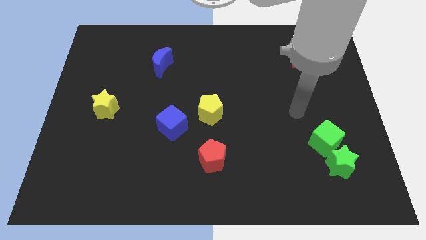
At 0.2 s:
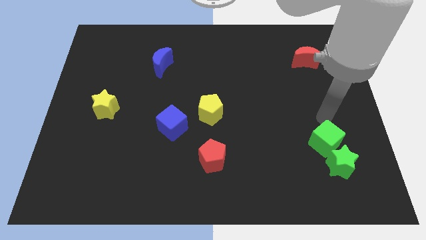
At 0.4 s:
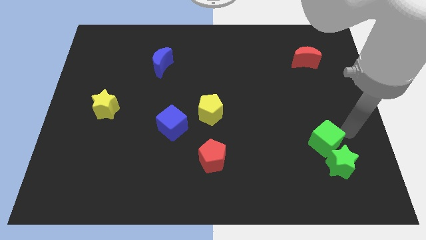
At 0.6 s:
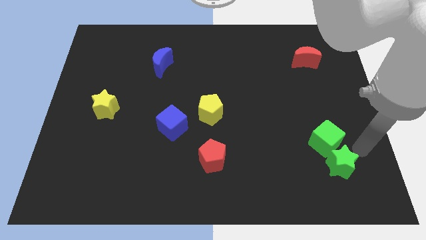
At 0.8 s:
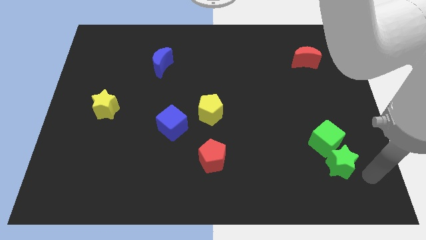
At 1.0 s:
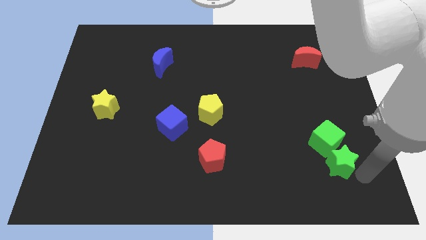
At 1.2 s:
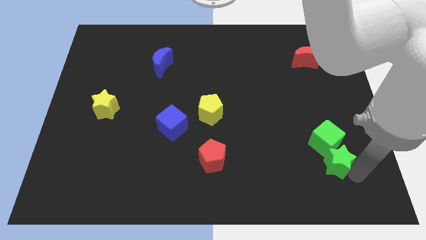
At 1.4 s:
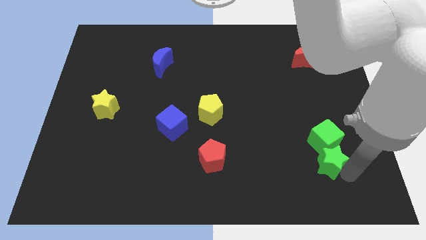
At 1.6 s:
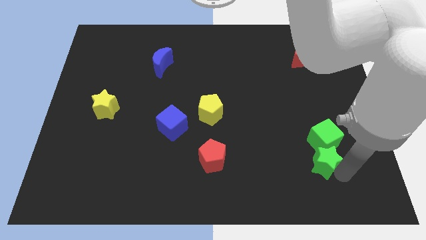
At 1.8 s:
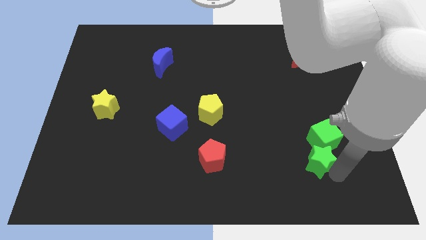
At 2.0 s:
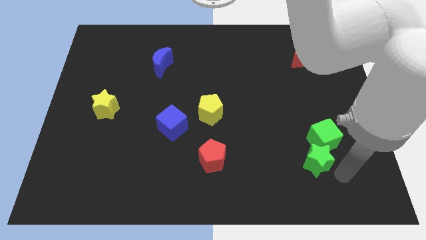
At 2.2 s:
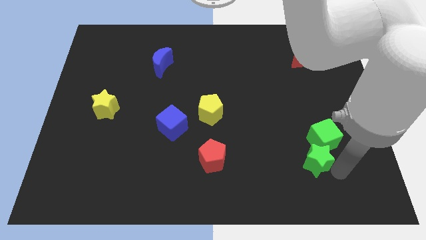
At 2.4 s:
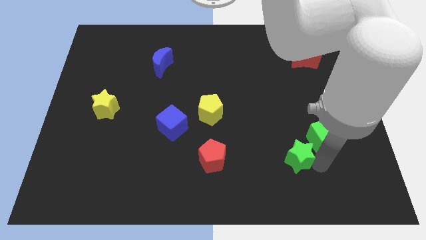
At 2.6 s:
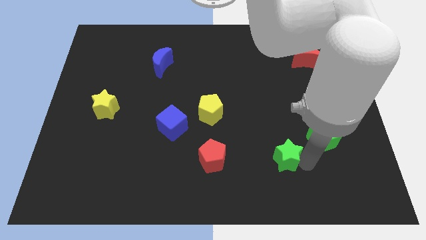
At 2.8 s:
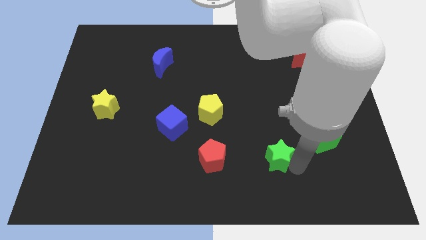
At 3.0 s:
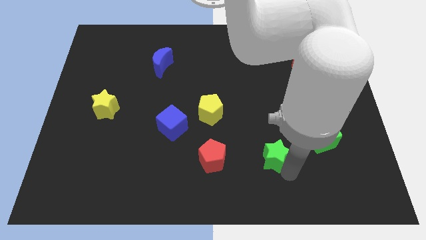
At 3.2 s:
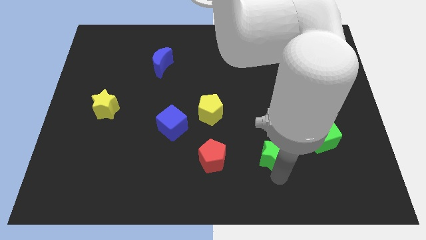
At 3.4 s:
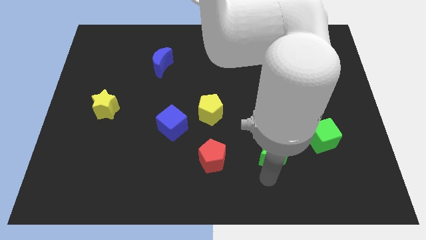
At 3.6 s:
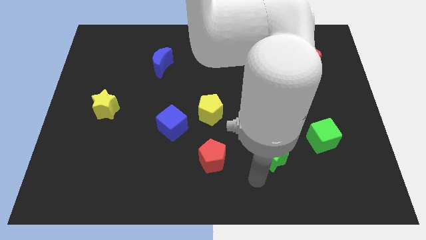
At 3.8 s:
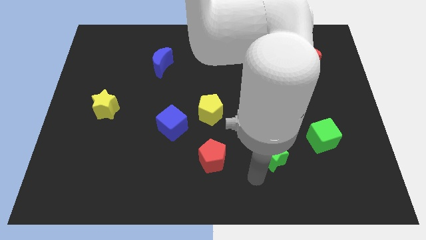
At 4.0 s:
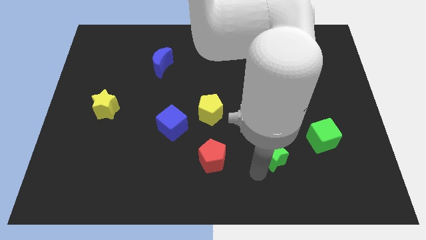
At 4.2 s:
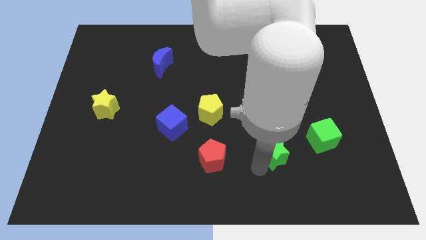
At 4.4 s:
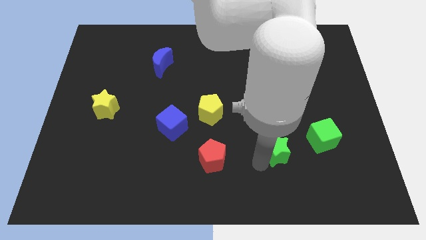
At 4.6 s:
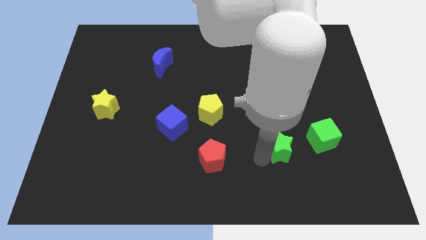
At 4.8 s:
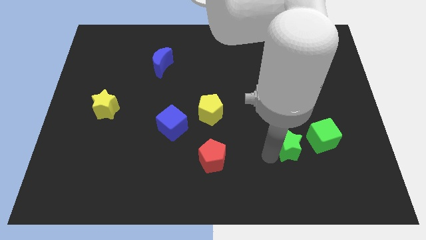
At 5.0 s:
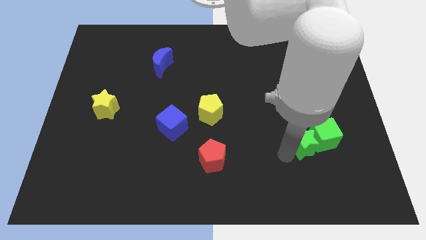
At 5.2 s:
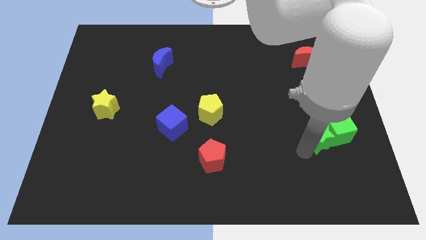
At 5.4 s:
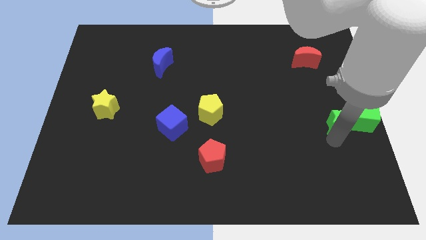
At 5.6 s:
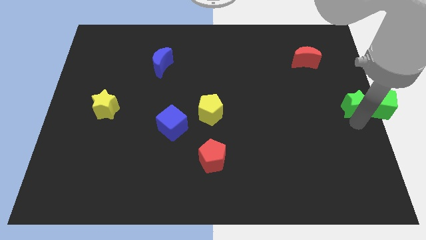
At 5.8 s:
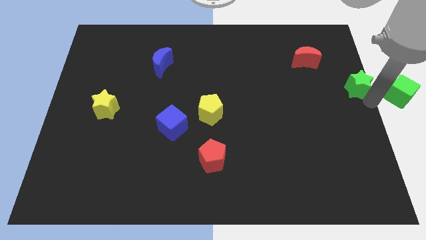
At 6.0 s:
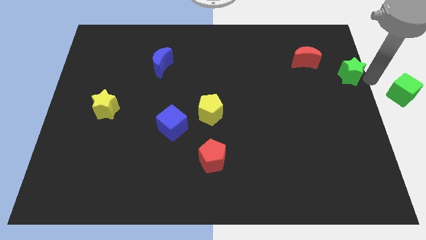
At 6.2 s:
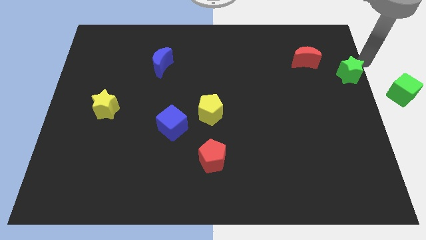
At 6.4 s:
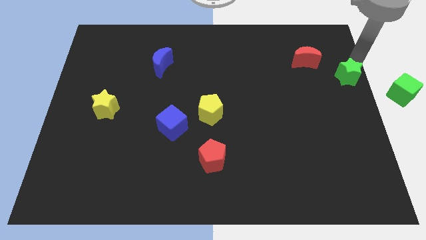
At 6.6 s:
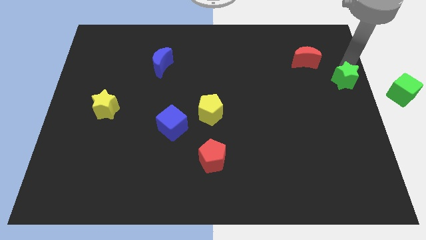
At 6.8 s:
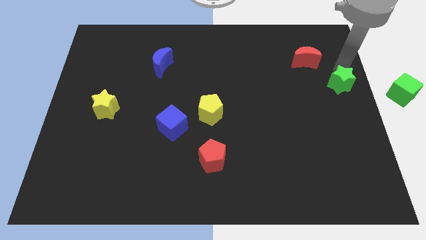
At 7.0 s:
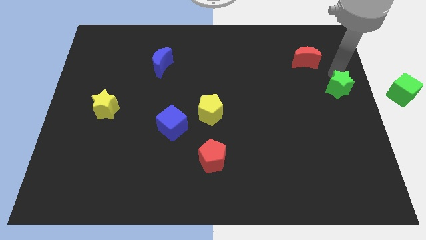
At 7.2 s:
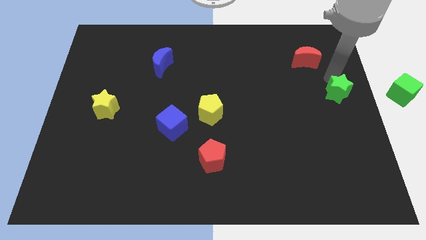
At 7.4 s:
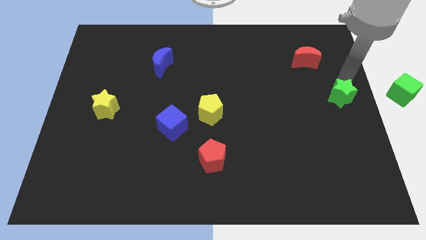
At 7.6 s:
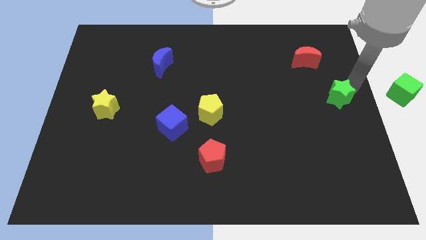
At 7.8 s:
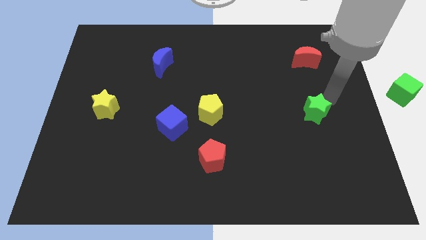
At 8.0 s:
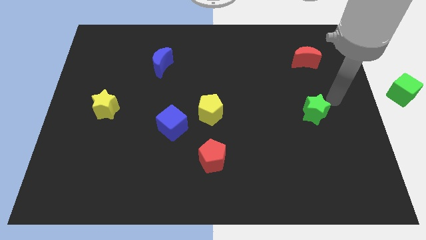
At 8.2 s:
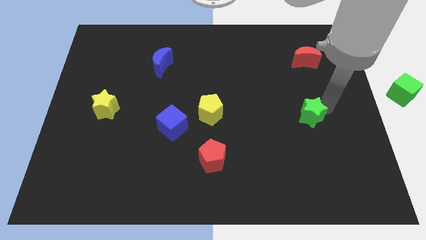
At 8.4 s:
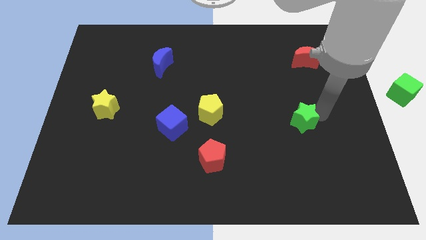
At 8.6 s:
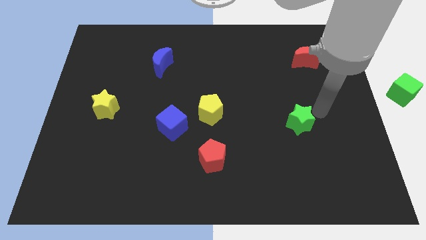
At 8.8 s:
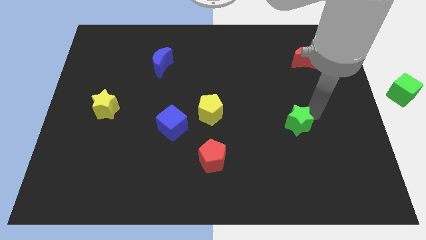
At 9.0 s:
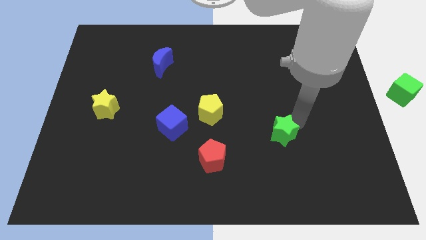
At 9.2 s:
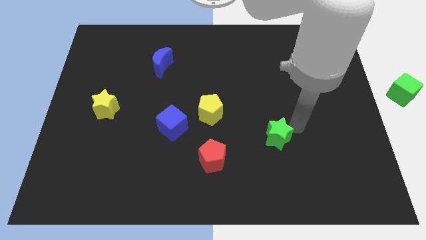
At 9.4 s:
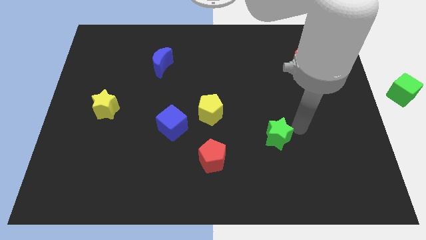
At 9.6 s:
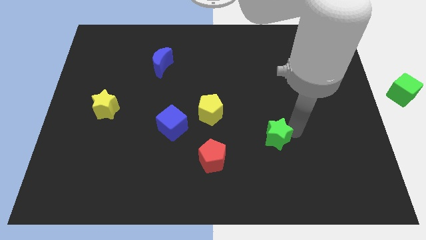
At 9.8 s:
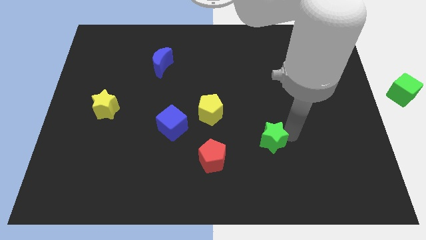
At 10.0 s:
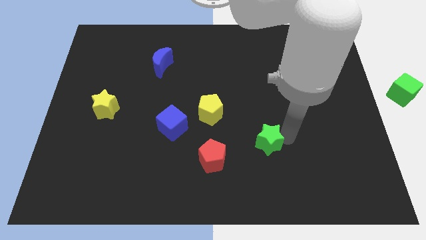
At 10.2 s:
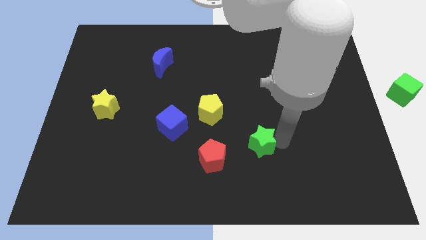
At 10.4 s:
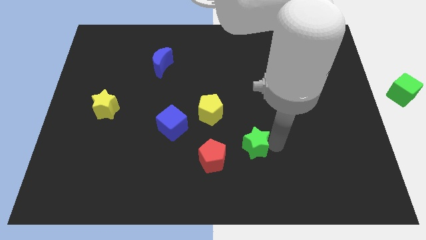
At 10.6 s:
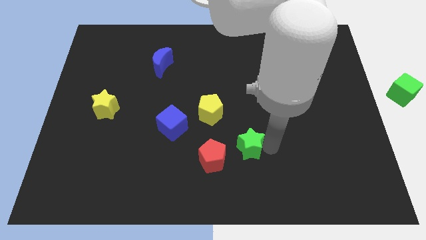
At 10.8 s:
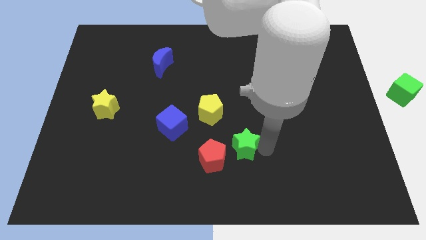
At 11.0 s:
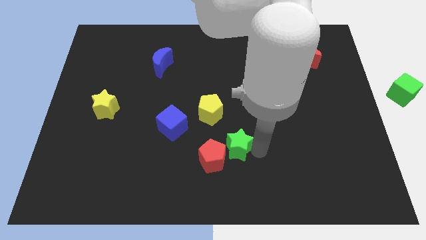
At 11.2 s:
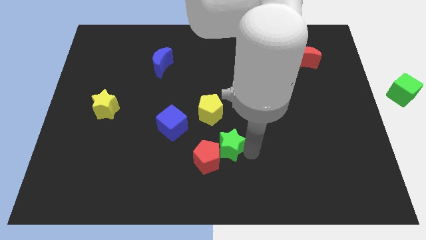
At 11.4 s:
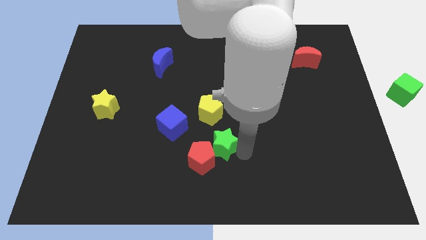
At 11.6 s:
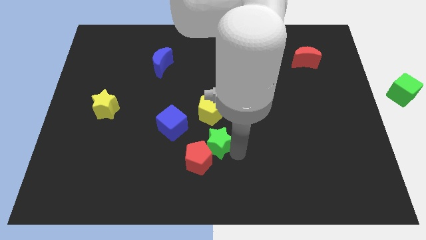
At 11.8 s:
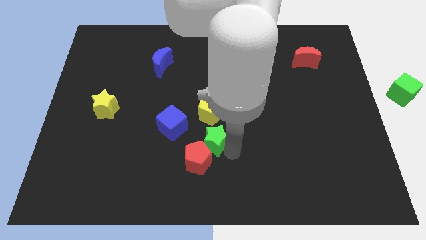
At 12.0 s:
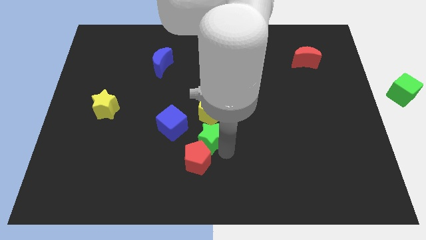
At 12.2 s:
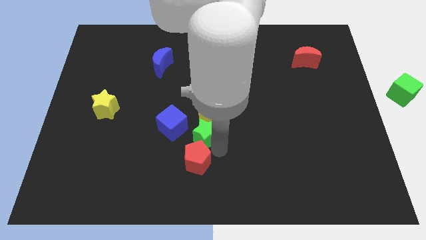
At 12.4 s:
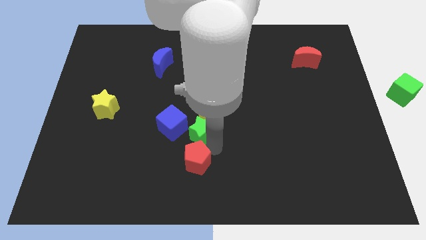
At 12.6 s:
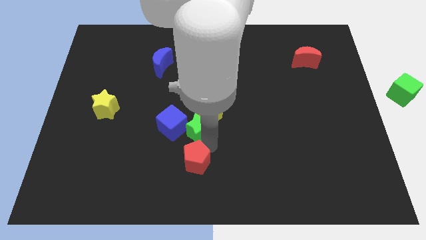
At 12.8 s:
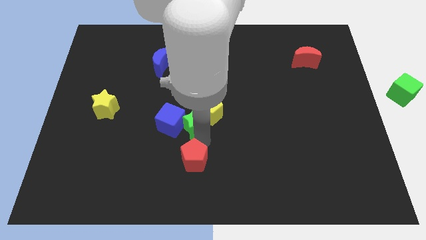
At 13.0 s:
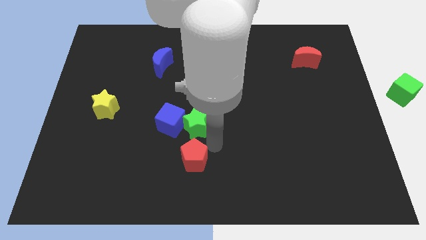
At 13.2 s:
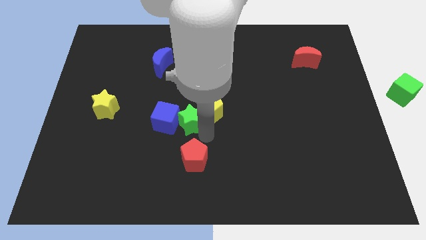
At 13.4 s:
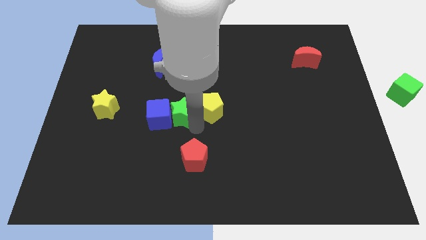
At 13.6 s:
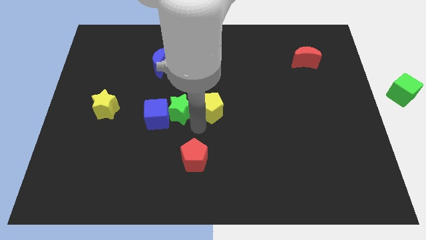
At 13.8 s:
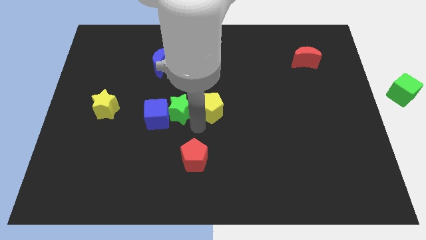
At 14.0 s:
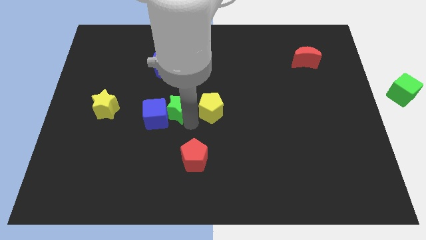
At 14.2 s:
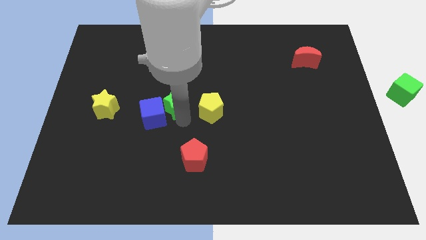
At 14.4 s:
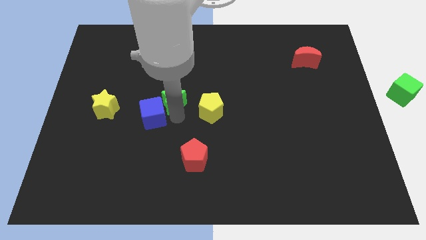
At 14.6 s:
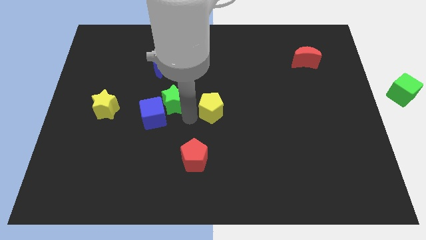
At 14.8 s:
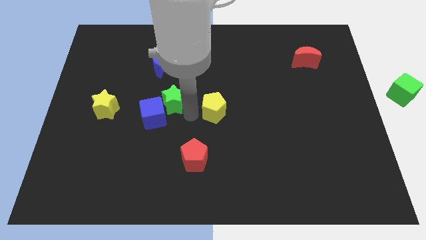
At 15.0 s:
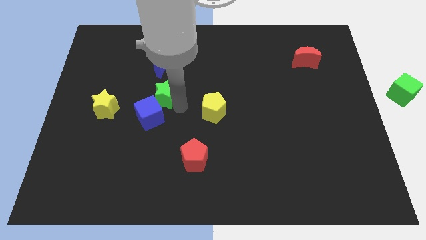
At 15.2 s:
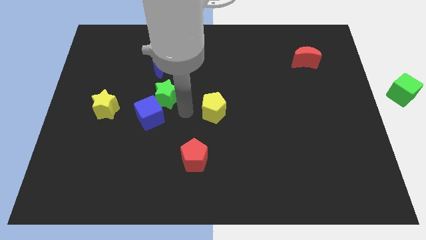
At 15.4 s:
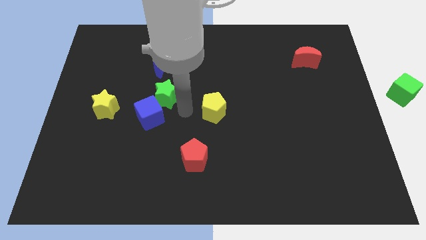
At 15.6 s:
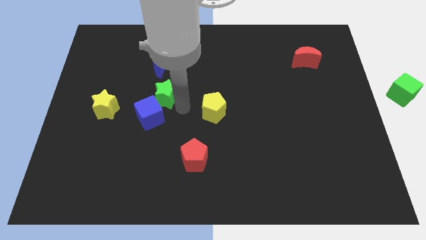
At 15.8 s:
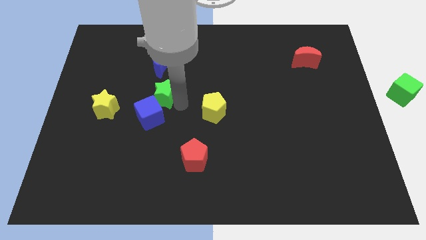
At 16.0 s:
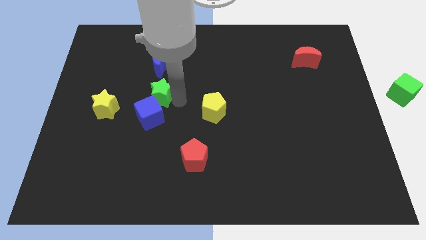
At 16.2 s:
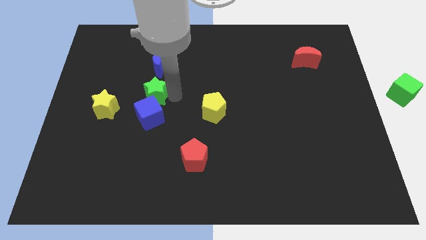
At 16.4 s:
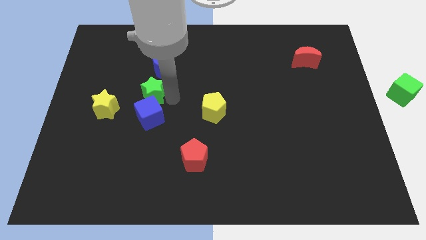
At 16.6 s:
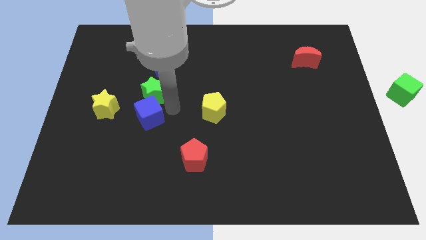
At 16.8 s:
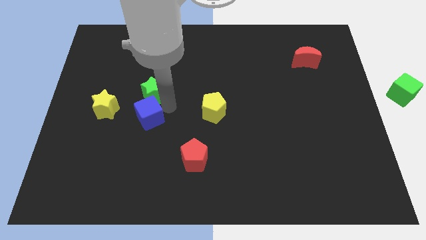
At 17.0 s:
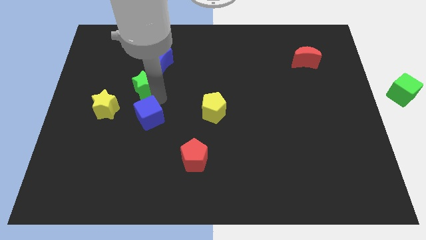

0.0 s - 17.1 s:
slide the green star to the bottom left of the blue moon
